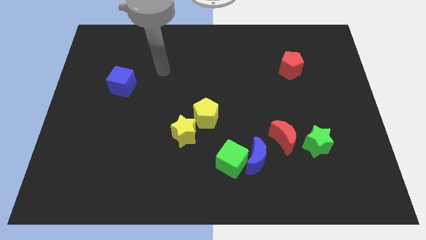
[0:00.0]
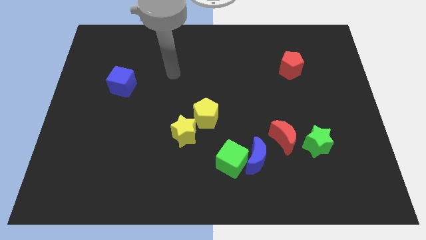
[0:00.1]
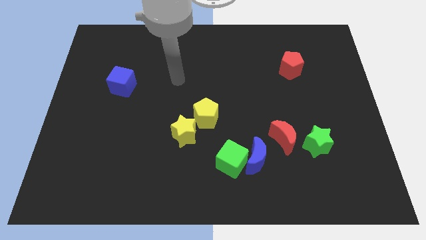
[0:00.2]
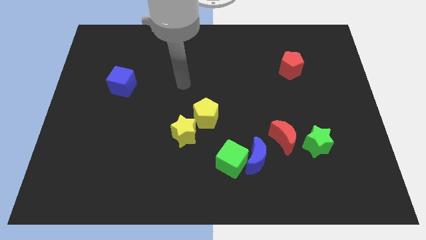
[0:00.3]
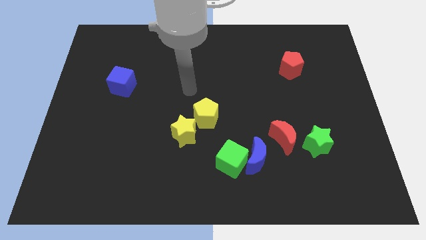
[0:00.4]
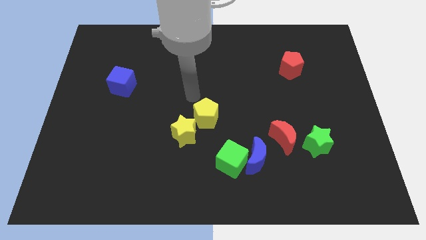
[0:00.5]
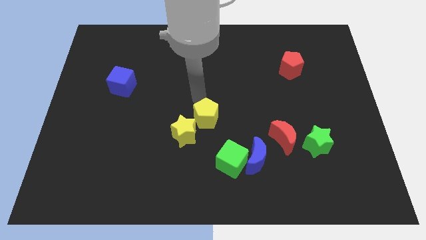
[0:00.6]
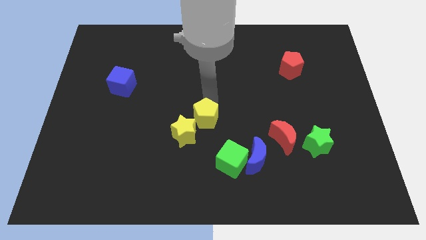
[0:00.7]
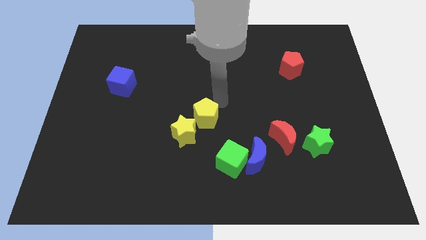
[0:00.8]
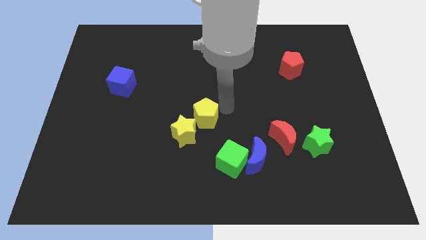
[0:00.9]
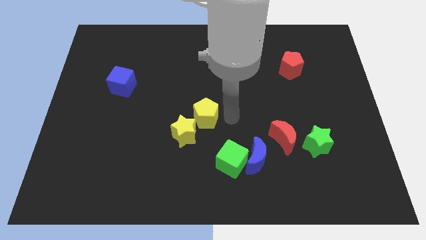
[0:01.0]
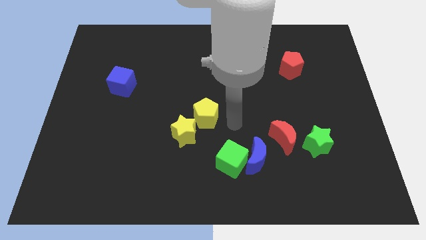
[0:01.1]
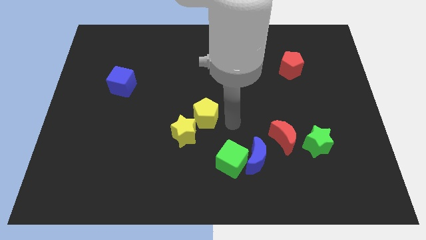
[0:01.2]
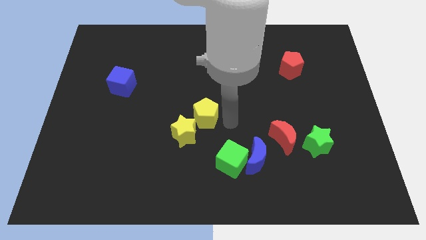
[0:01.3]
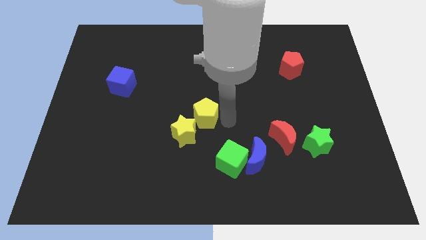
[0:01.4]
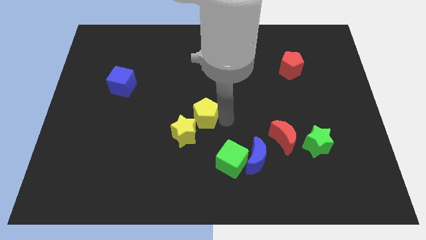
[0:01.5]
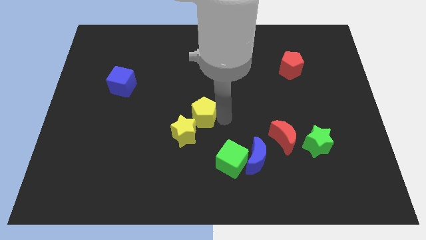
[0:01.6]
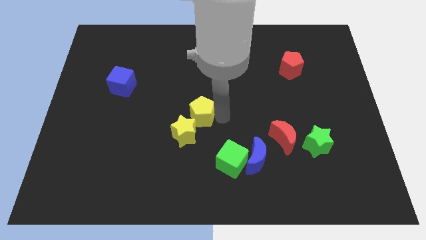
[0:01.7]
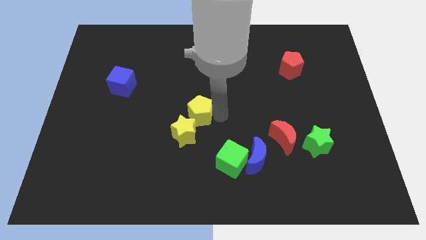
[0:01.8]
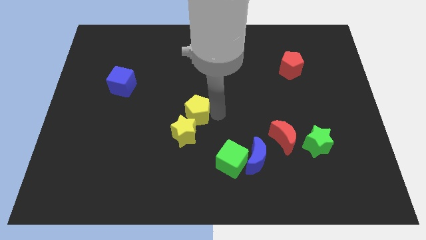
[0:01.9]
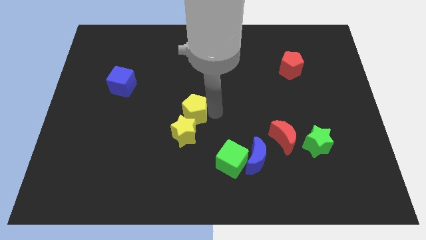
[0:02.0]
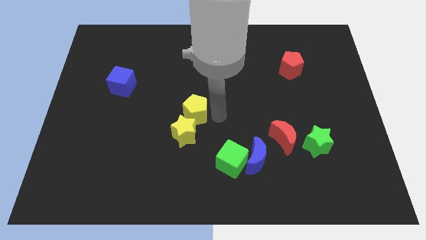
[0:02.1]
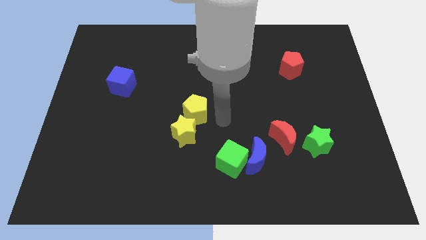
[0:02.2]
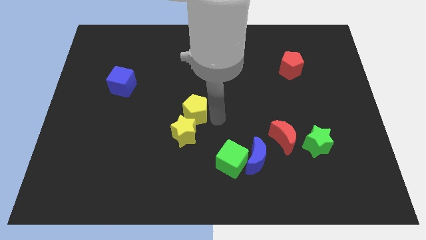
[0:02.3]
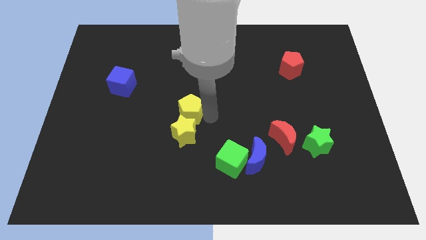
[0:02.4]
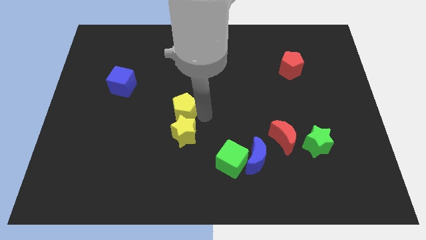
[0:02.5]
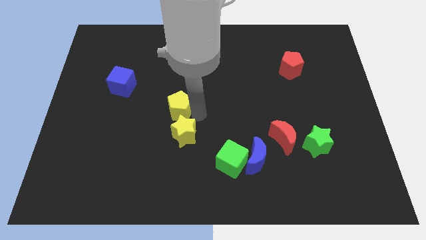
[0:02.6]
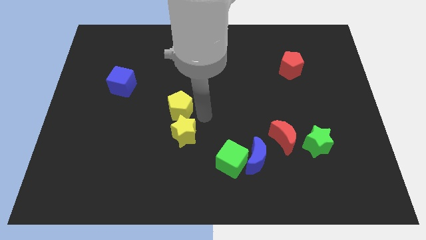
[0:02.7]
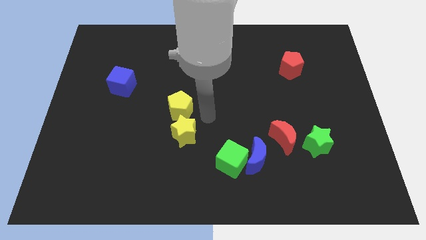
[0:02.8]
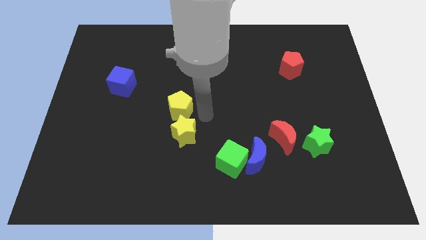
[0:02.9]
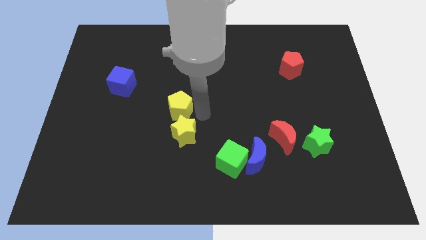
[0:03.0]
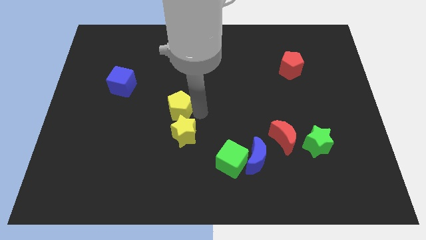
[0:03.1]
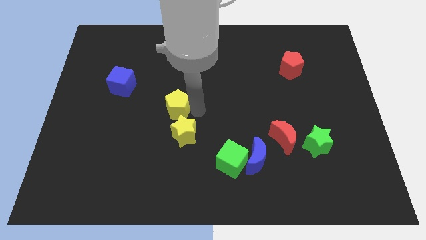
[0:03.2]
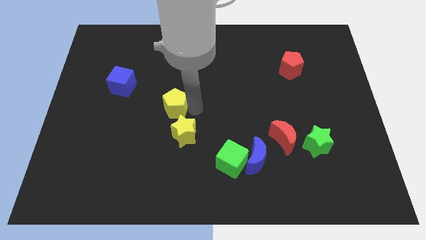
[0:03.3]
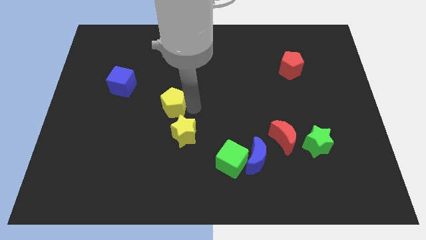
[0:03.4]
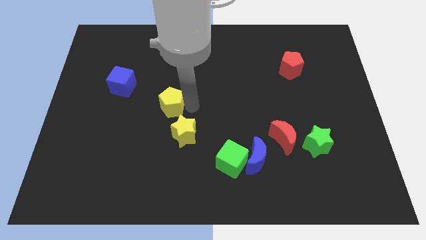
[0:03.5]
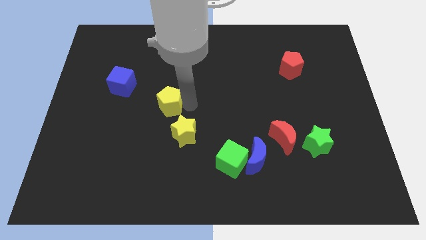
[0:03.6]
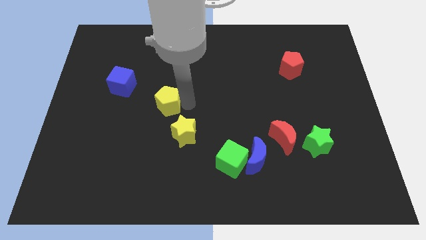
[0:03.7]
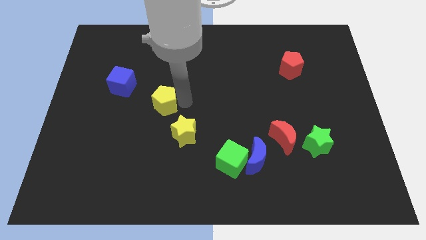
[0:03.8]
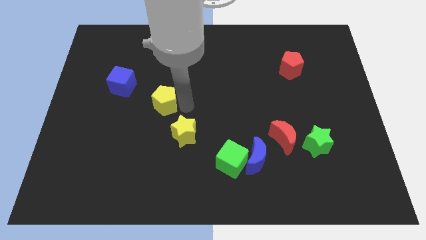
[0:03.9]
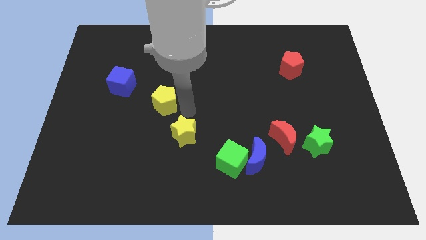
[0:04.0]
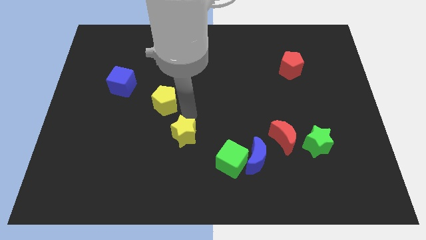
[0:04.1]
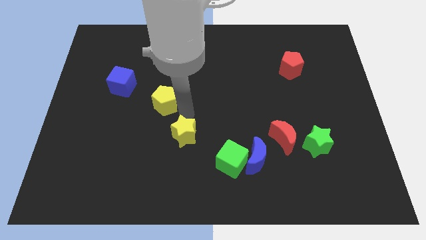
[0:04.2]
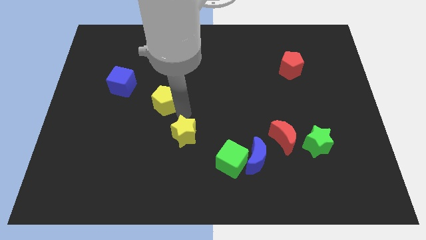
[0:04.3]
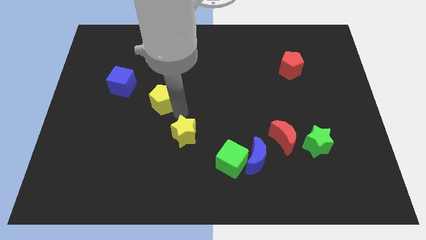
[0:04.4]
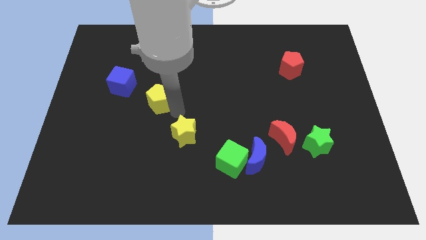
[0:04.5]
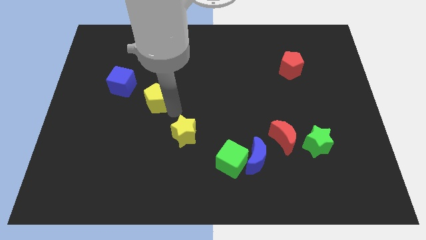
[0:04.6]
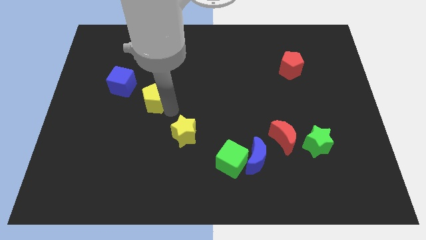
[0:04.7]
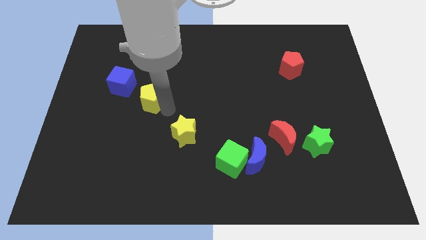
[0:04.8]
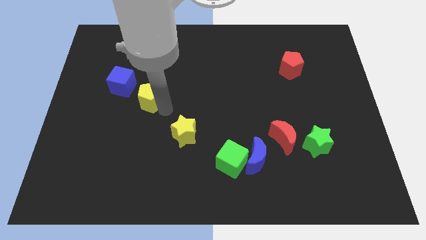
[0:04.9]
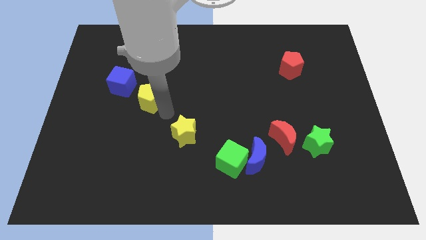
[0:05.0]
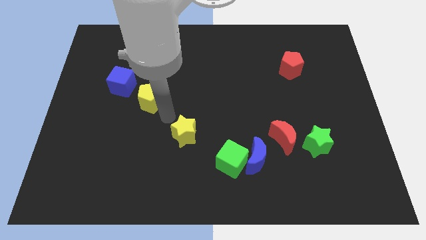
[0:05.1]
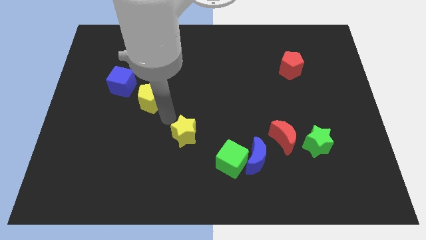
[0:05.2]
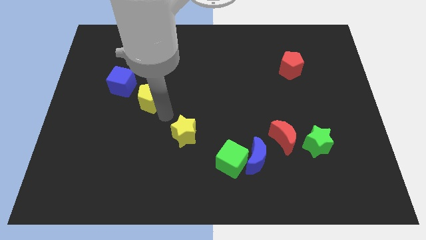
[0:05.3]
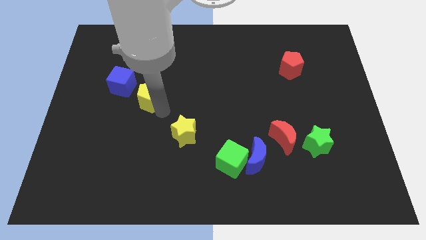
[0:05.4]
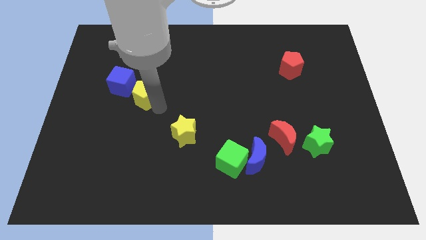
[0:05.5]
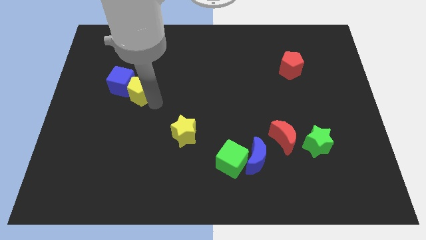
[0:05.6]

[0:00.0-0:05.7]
push the yellow pentagon towards the blue cube

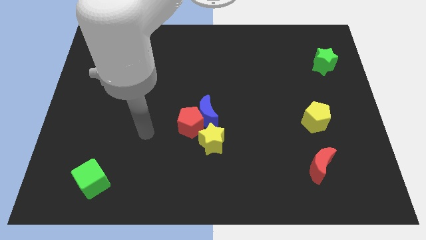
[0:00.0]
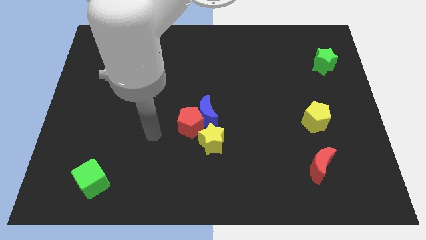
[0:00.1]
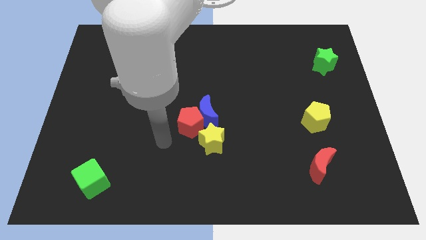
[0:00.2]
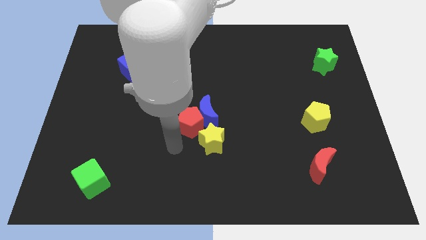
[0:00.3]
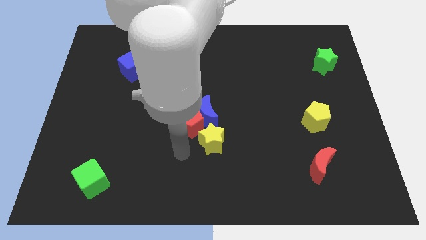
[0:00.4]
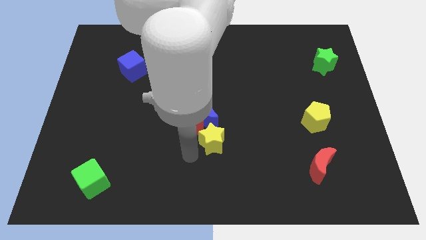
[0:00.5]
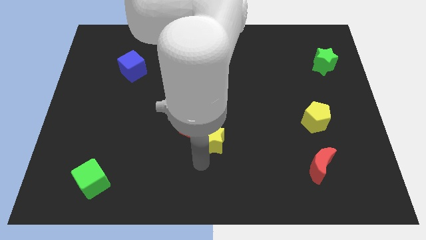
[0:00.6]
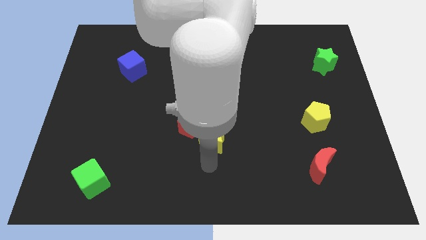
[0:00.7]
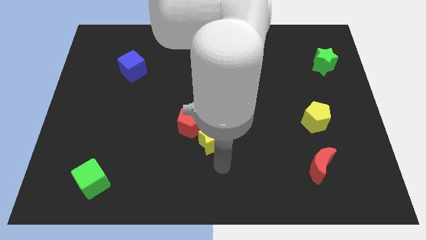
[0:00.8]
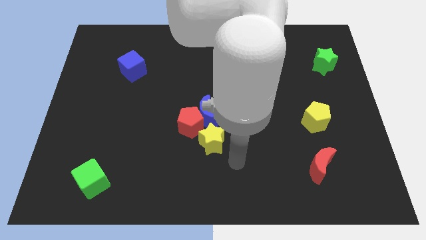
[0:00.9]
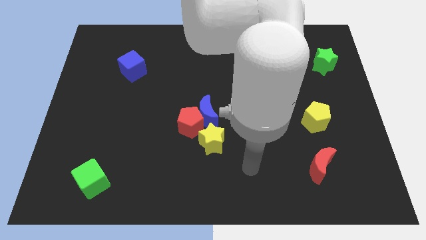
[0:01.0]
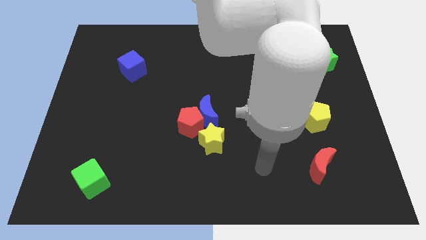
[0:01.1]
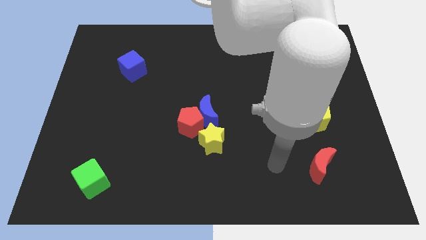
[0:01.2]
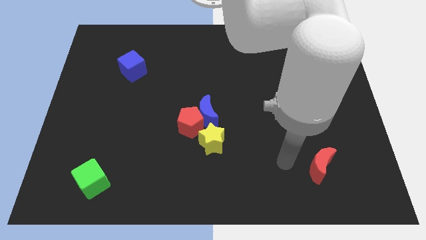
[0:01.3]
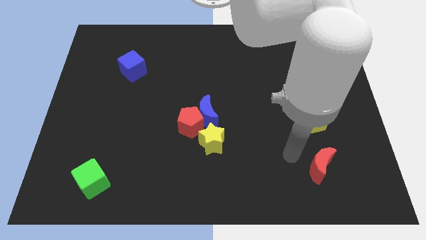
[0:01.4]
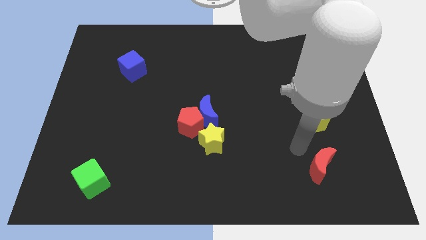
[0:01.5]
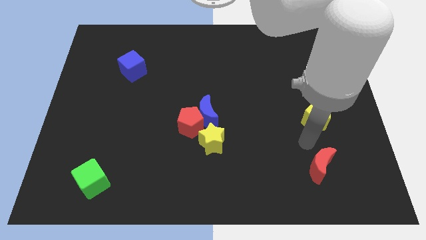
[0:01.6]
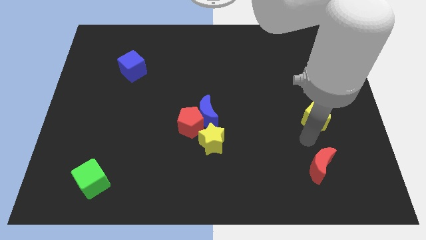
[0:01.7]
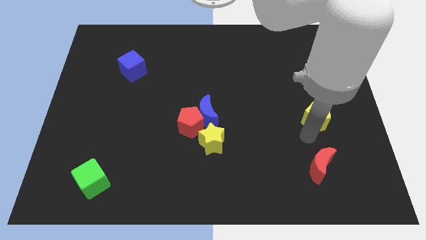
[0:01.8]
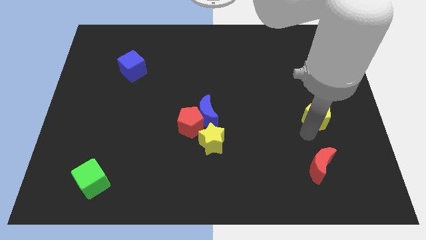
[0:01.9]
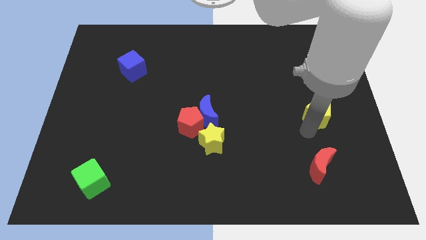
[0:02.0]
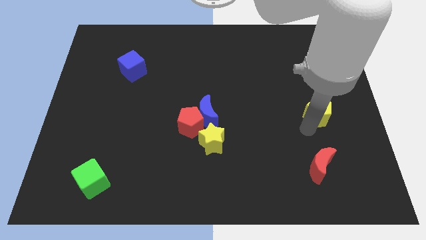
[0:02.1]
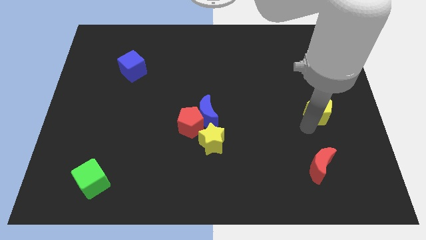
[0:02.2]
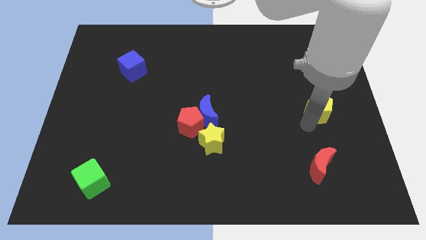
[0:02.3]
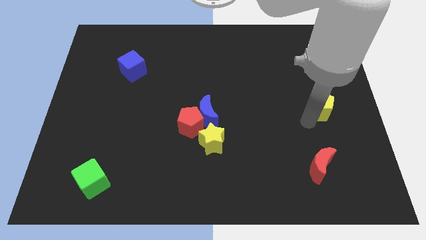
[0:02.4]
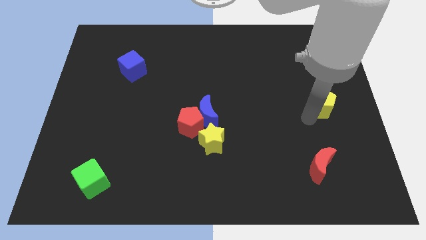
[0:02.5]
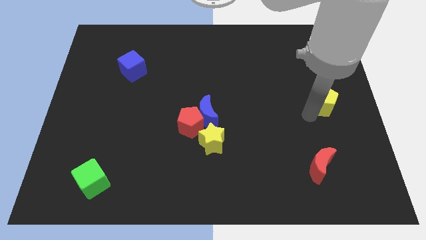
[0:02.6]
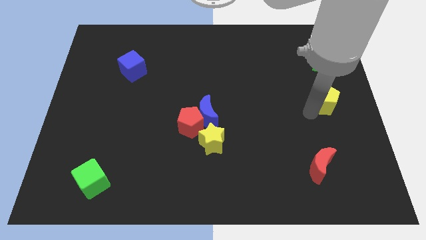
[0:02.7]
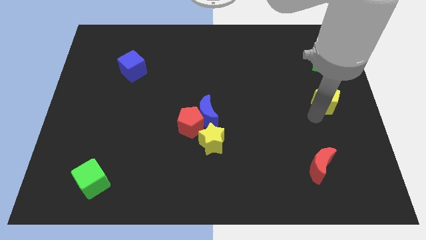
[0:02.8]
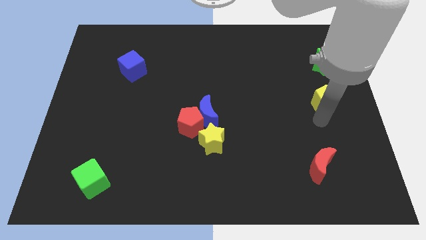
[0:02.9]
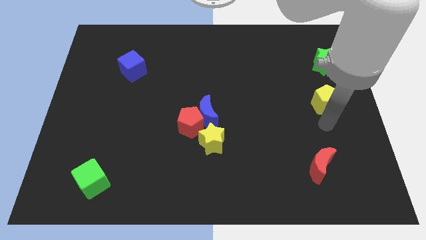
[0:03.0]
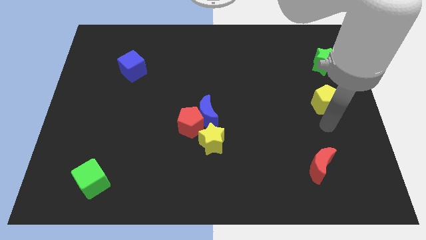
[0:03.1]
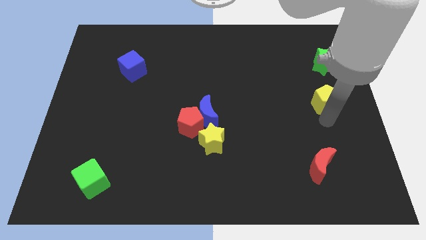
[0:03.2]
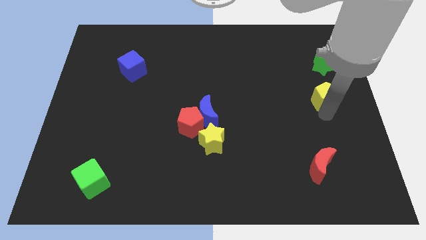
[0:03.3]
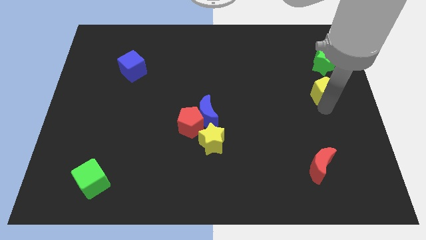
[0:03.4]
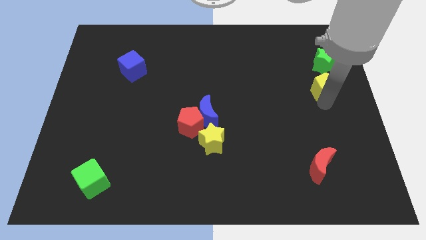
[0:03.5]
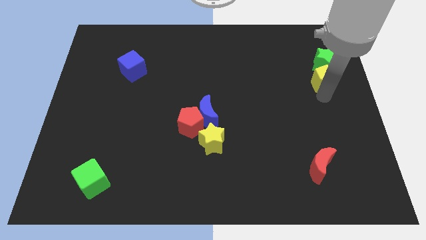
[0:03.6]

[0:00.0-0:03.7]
push the yellow pentagon to the green star
